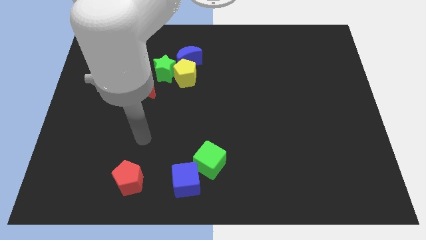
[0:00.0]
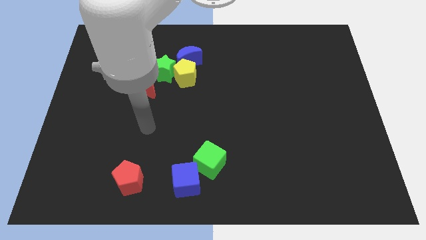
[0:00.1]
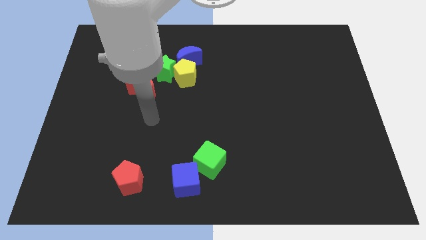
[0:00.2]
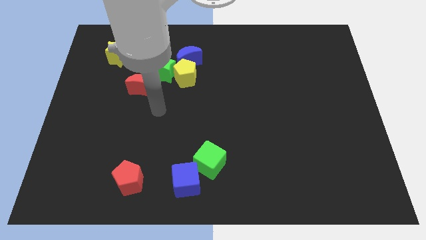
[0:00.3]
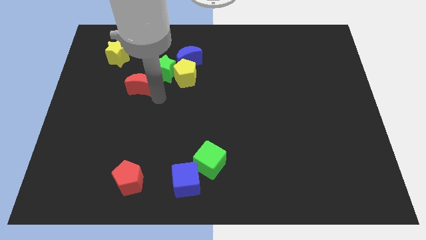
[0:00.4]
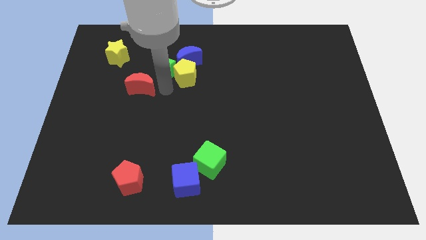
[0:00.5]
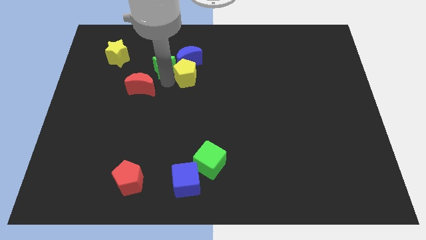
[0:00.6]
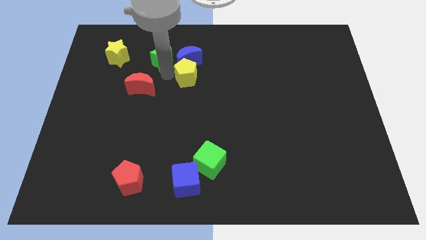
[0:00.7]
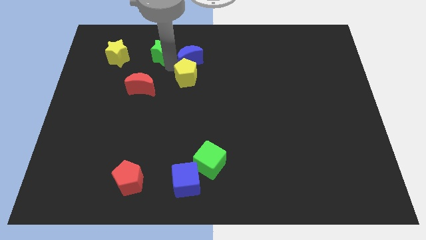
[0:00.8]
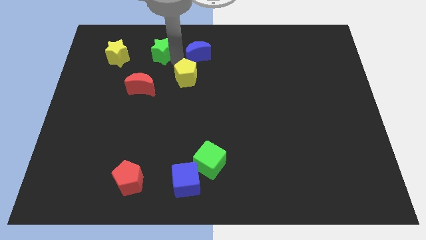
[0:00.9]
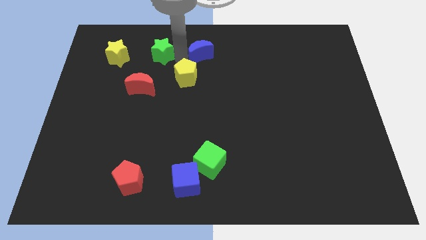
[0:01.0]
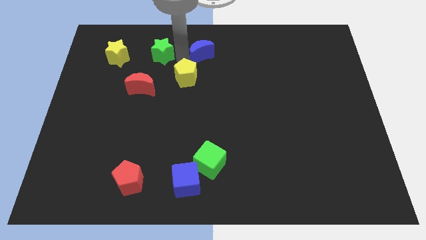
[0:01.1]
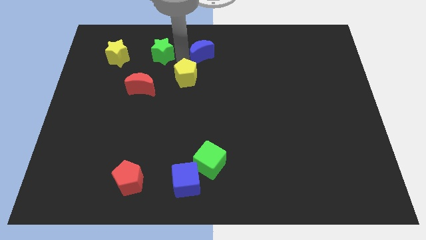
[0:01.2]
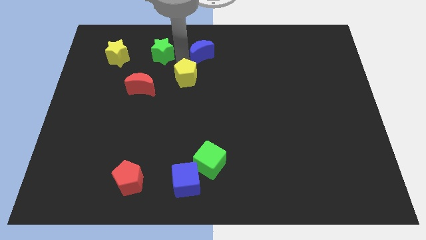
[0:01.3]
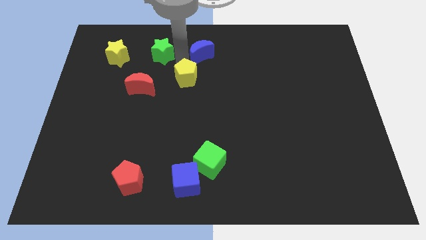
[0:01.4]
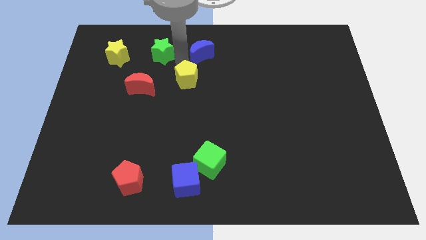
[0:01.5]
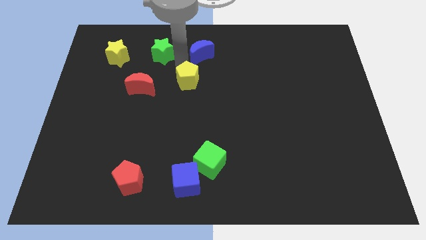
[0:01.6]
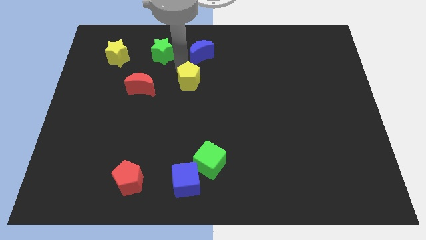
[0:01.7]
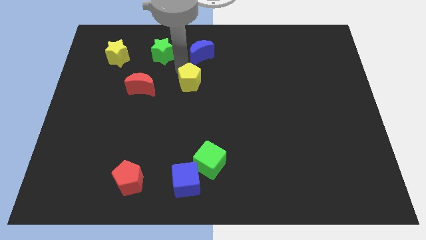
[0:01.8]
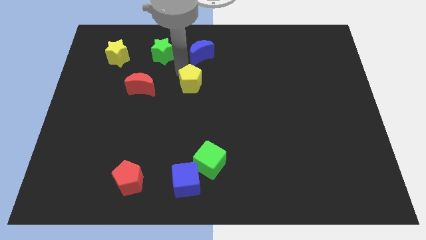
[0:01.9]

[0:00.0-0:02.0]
pull the yellow pentagon apart from the blue moon and green star

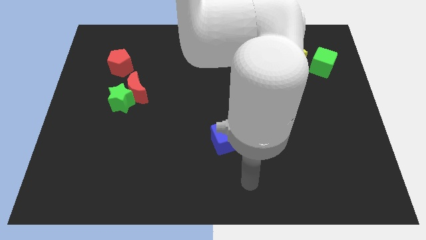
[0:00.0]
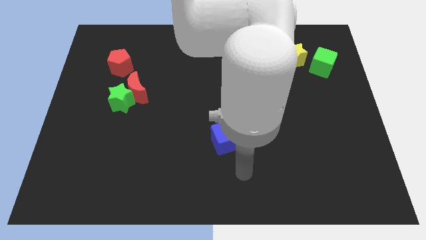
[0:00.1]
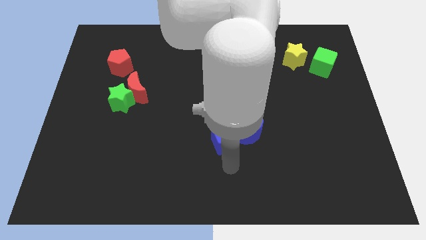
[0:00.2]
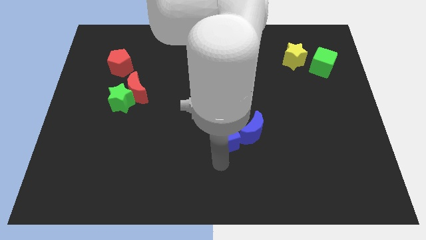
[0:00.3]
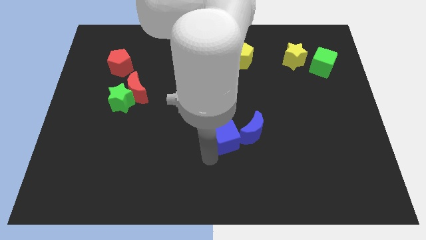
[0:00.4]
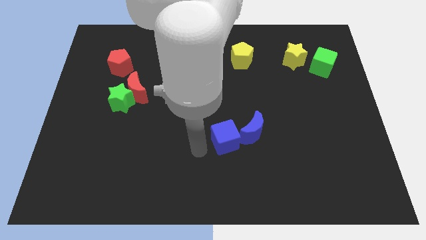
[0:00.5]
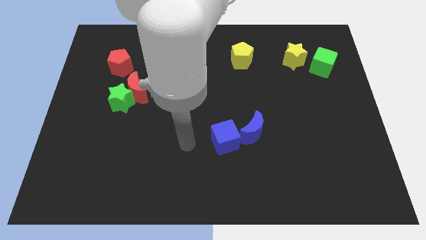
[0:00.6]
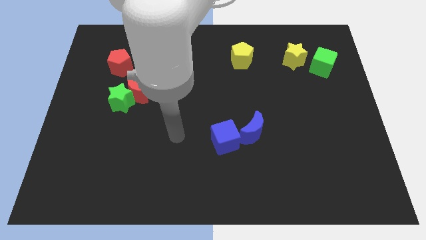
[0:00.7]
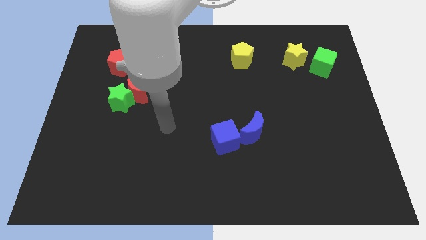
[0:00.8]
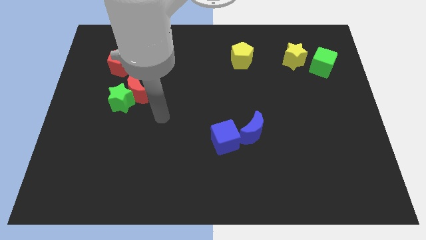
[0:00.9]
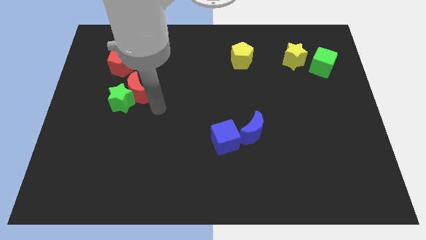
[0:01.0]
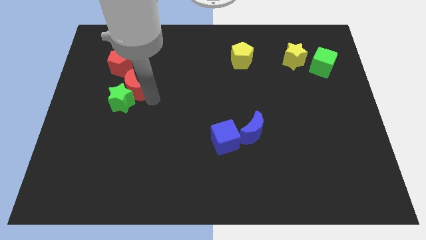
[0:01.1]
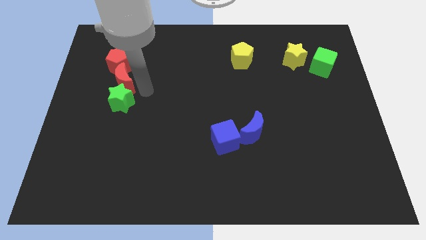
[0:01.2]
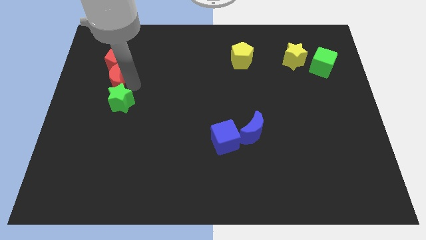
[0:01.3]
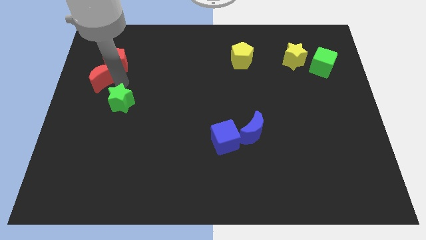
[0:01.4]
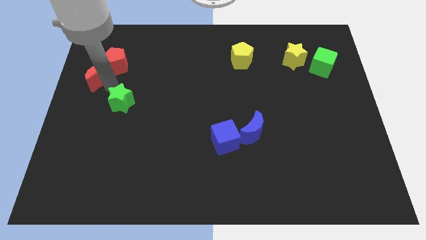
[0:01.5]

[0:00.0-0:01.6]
move the green star away from the red moon

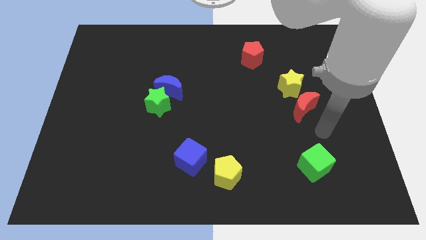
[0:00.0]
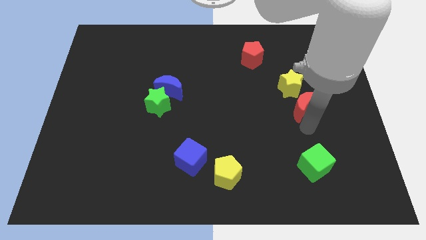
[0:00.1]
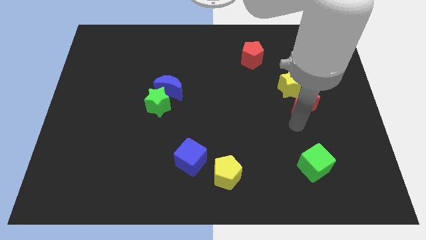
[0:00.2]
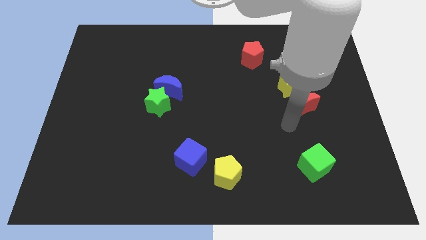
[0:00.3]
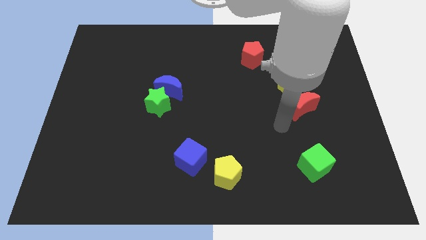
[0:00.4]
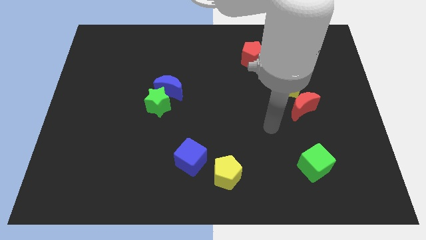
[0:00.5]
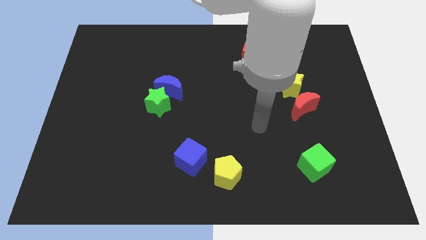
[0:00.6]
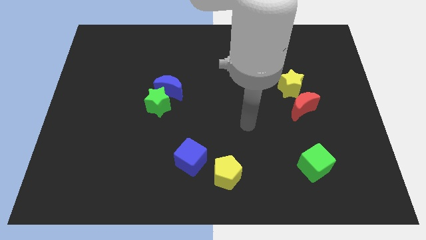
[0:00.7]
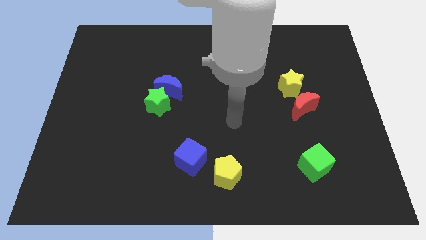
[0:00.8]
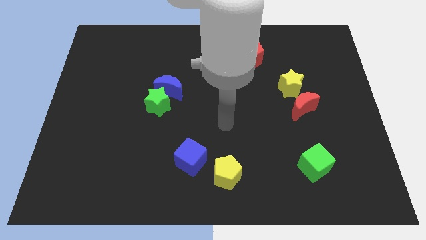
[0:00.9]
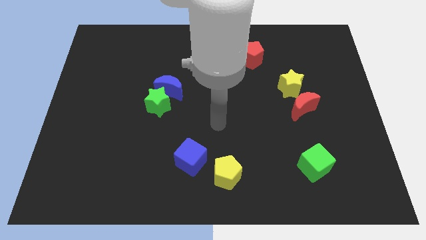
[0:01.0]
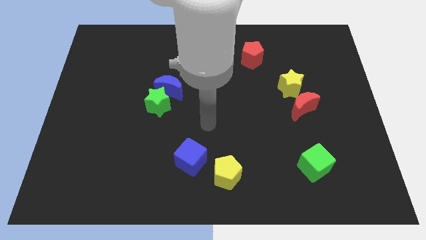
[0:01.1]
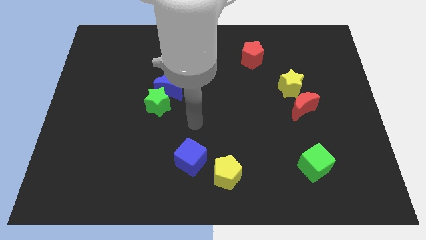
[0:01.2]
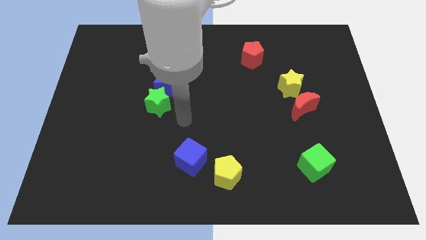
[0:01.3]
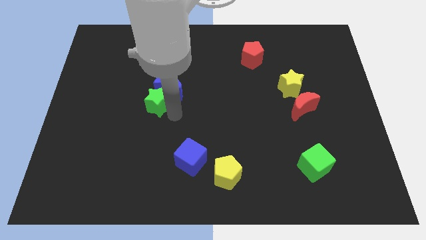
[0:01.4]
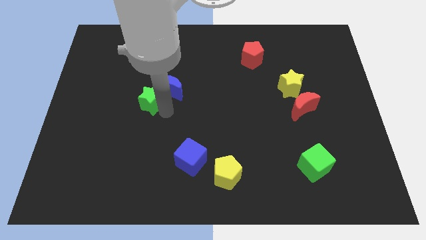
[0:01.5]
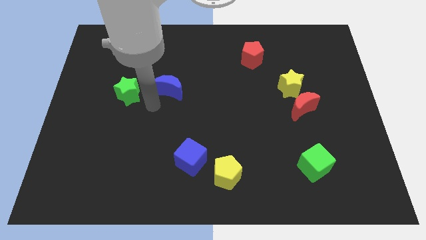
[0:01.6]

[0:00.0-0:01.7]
move the blue moon away from the green star

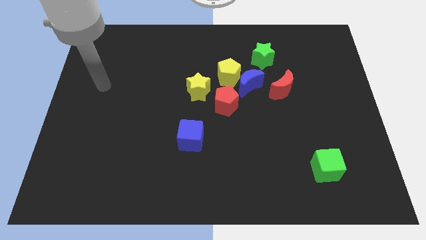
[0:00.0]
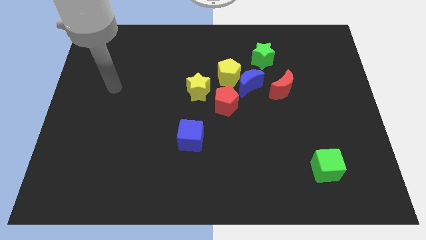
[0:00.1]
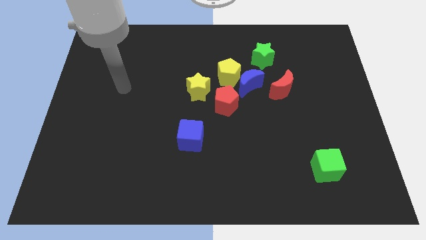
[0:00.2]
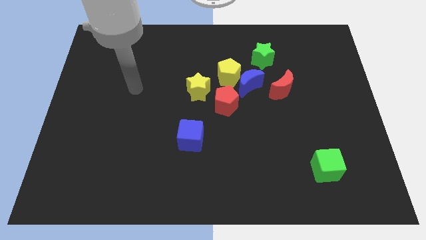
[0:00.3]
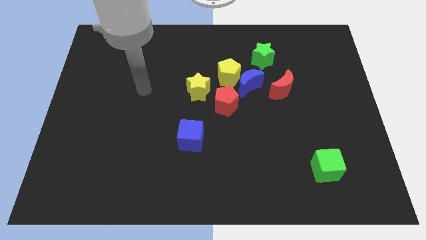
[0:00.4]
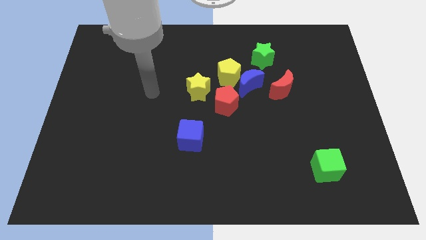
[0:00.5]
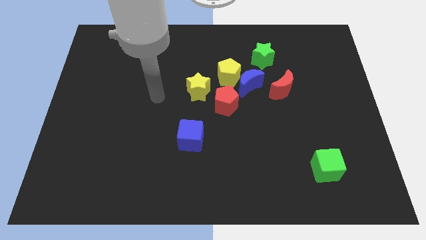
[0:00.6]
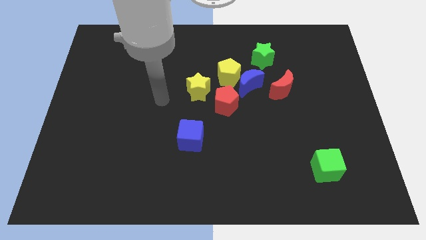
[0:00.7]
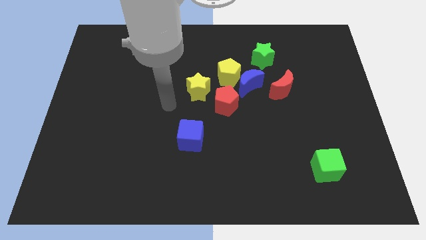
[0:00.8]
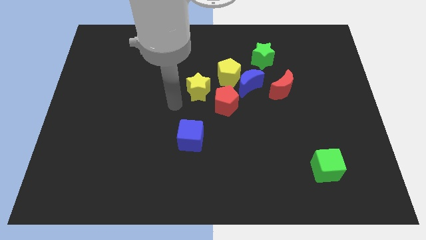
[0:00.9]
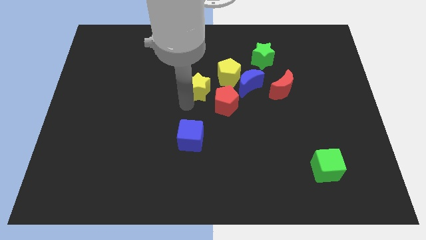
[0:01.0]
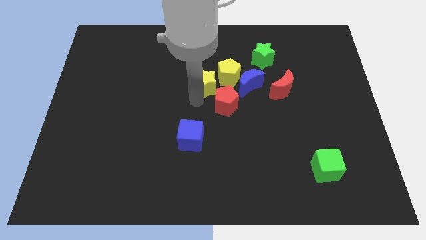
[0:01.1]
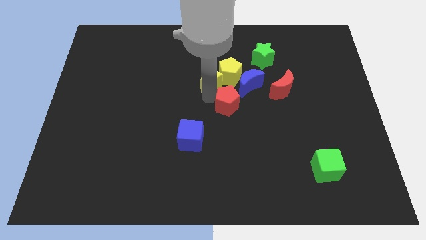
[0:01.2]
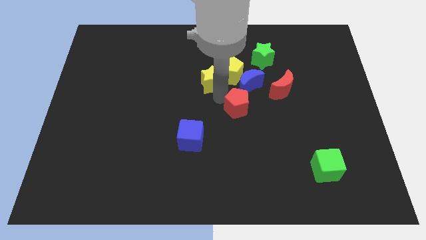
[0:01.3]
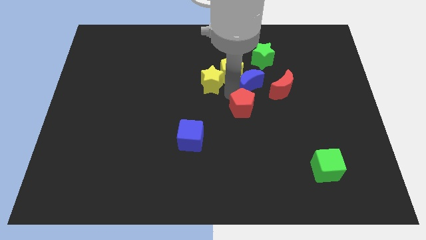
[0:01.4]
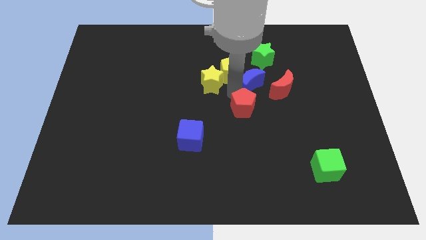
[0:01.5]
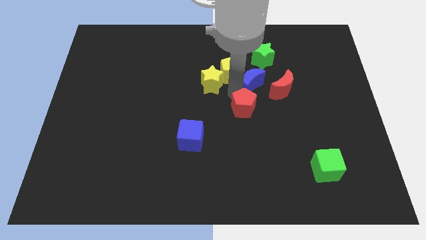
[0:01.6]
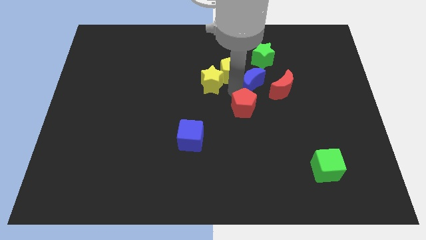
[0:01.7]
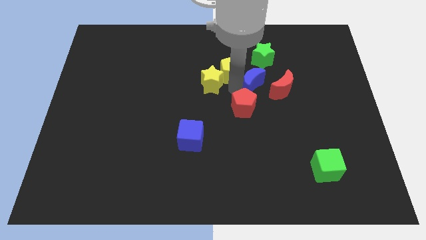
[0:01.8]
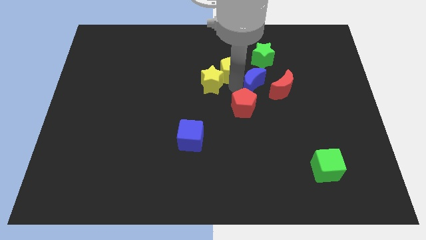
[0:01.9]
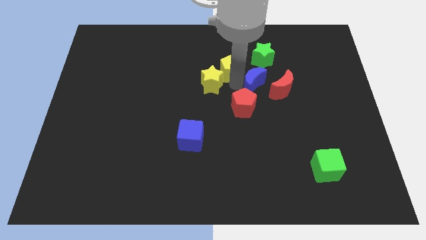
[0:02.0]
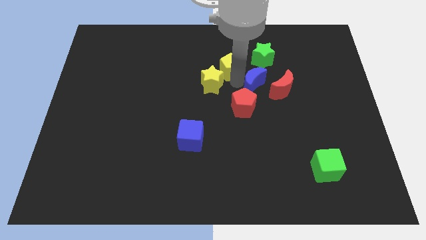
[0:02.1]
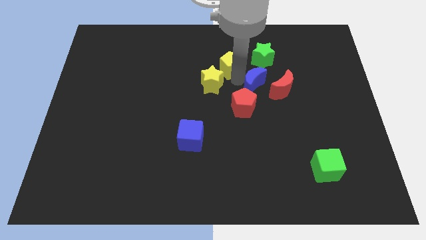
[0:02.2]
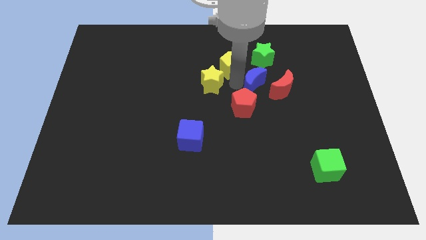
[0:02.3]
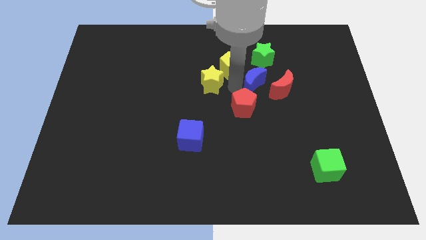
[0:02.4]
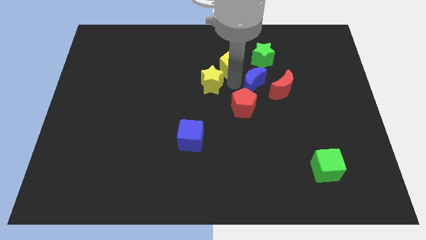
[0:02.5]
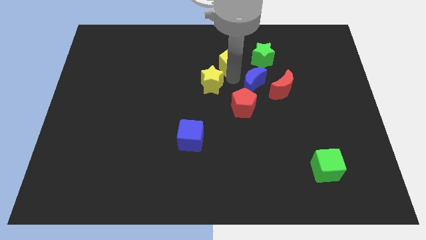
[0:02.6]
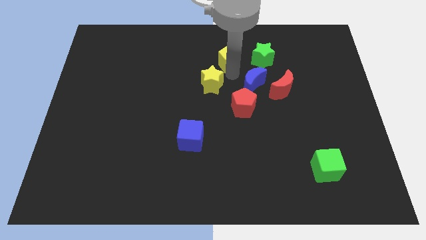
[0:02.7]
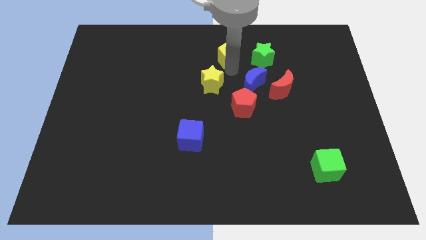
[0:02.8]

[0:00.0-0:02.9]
pull the yellow pentagon apart from the group

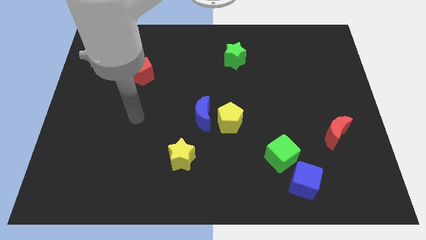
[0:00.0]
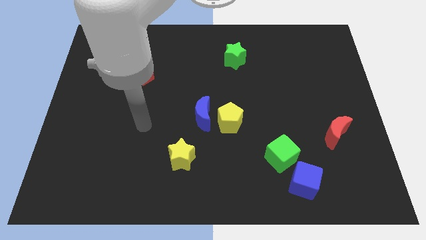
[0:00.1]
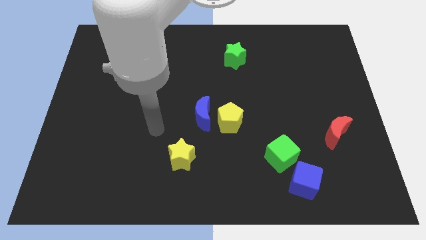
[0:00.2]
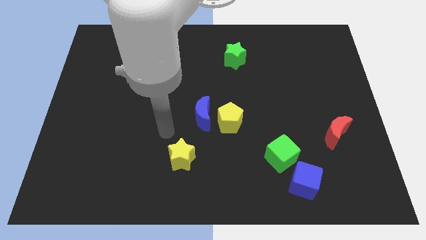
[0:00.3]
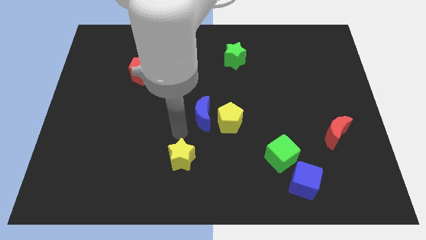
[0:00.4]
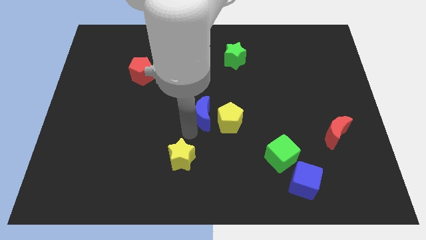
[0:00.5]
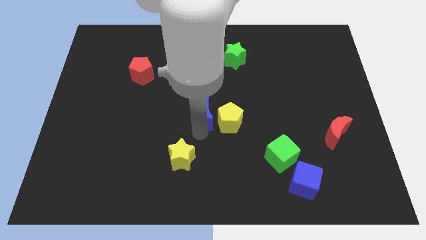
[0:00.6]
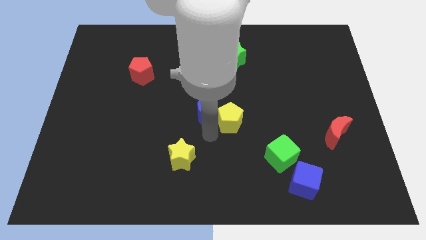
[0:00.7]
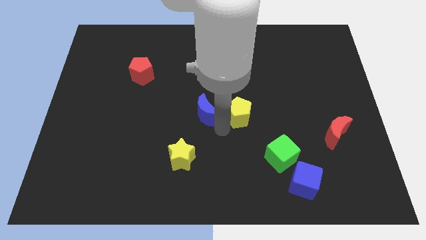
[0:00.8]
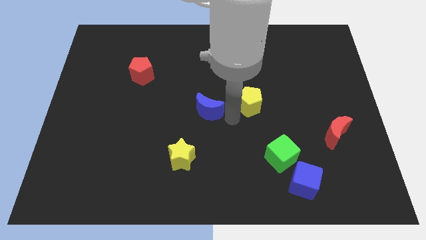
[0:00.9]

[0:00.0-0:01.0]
separate the blue moon from the yellow pentagon
